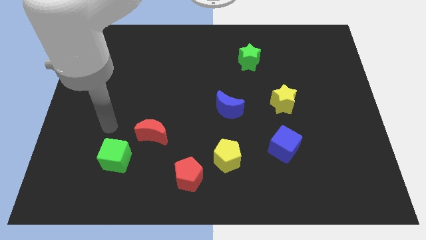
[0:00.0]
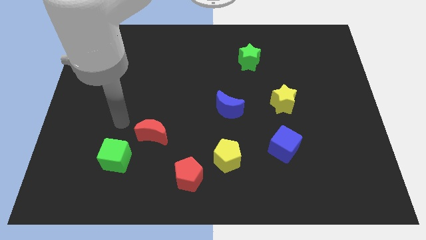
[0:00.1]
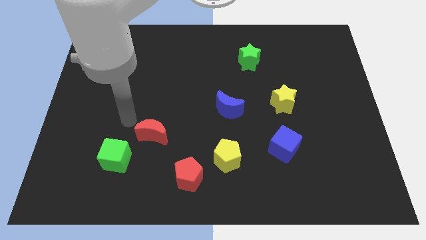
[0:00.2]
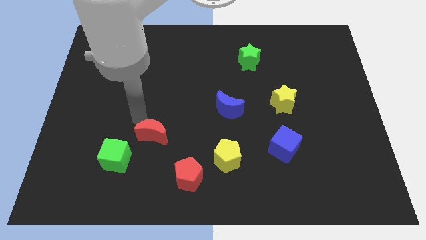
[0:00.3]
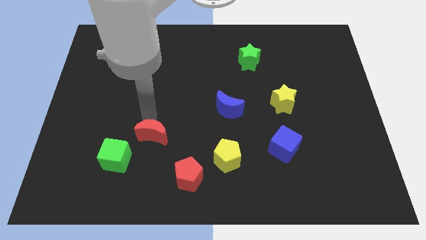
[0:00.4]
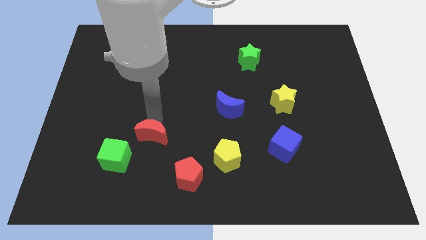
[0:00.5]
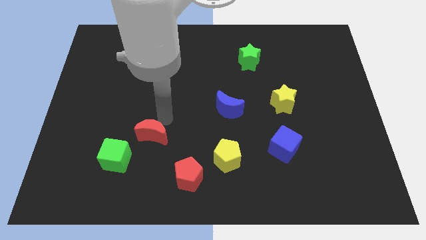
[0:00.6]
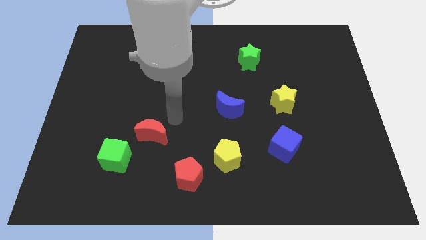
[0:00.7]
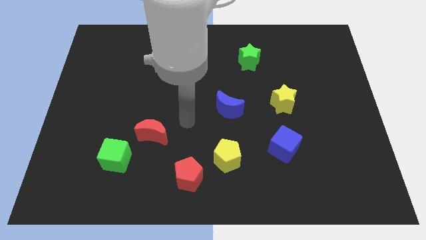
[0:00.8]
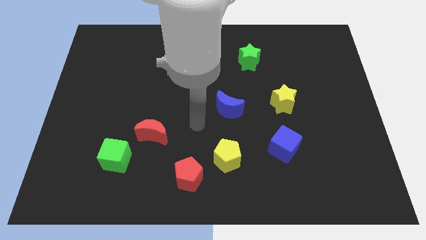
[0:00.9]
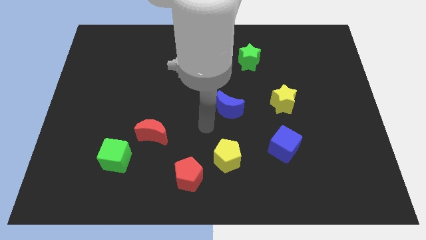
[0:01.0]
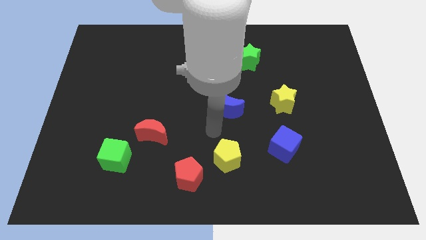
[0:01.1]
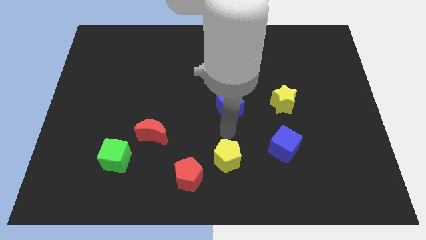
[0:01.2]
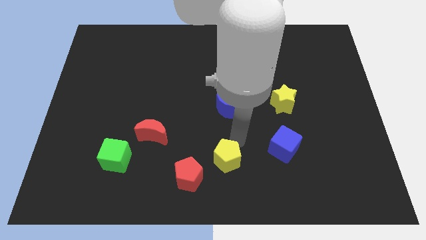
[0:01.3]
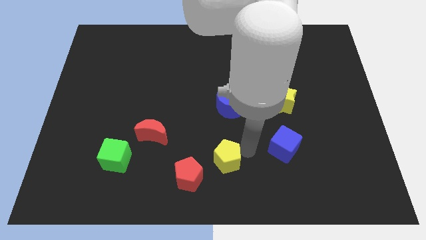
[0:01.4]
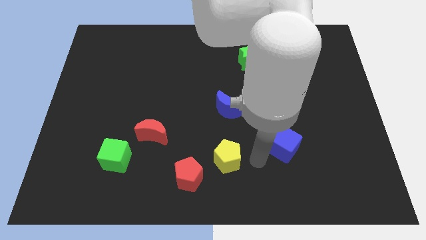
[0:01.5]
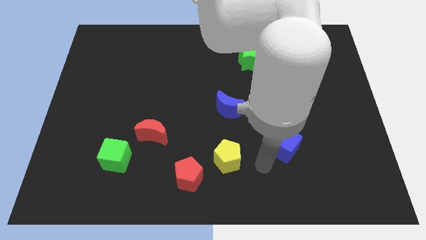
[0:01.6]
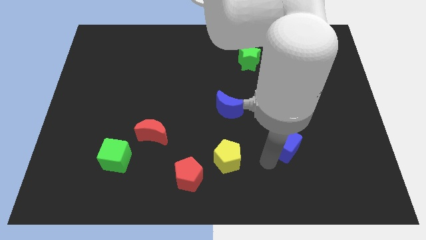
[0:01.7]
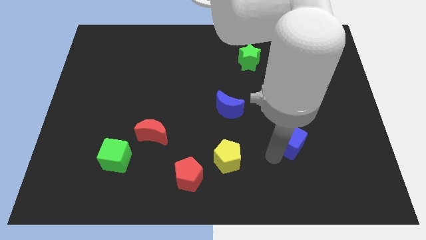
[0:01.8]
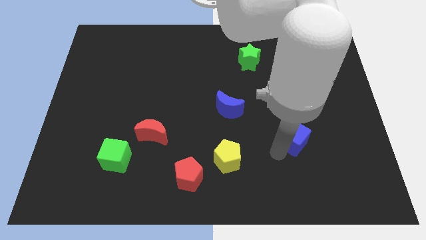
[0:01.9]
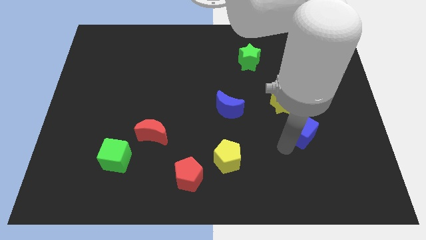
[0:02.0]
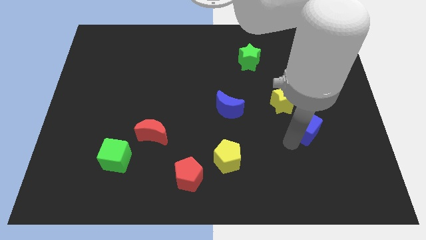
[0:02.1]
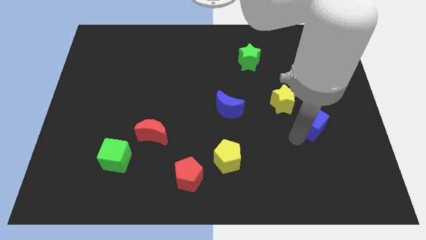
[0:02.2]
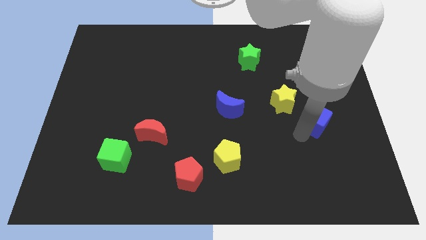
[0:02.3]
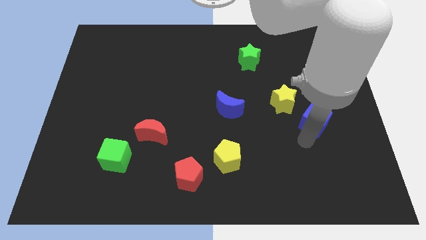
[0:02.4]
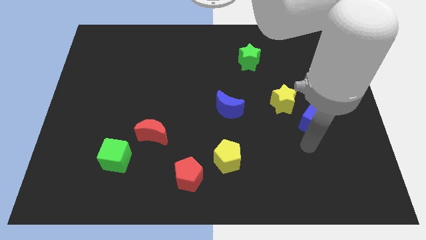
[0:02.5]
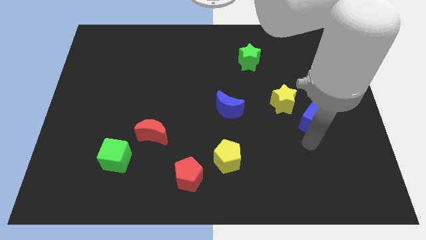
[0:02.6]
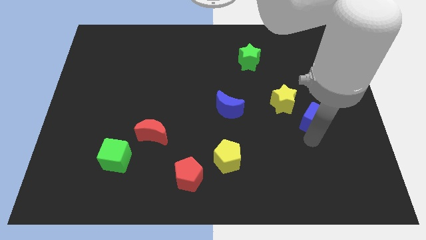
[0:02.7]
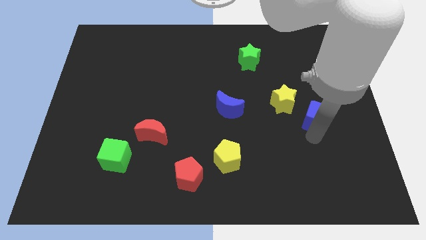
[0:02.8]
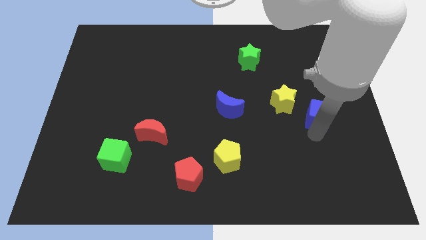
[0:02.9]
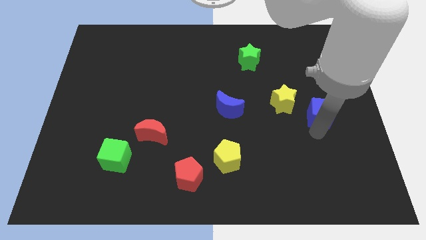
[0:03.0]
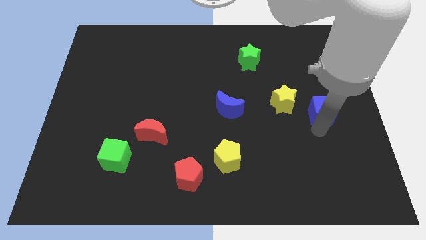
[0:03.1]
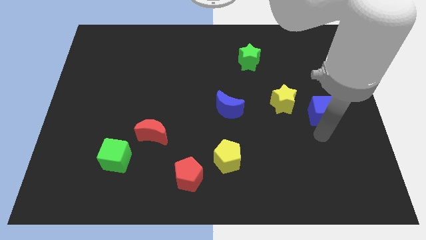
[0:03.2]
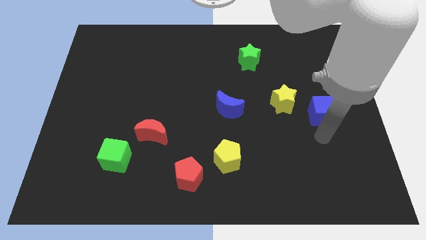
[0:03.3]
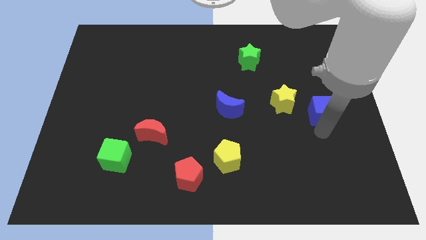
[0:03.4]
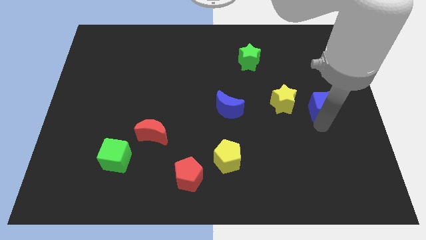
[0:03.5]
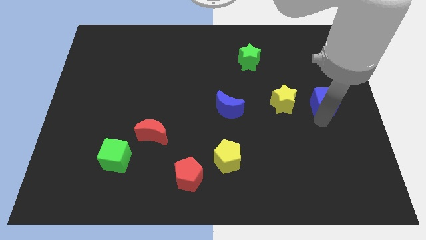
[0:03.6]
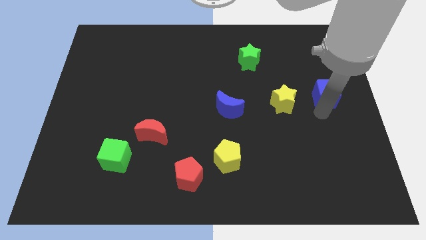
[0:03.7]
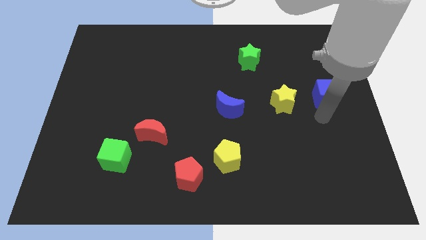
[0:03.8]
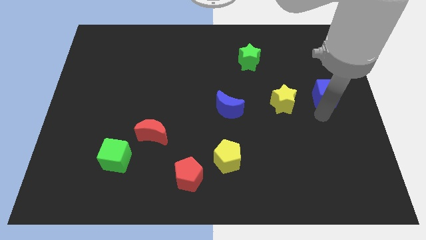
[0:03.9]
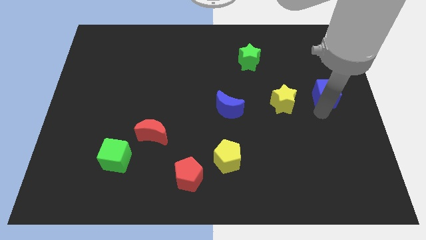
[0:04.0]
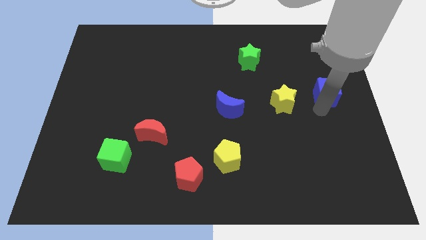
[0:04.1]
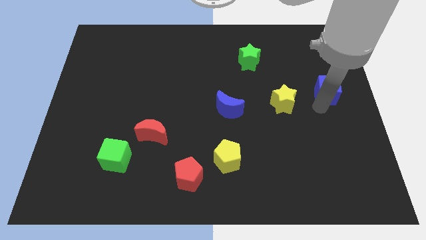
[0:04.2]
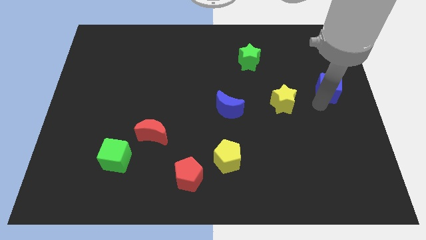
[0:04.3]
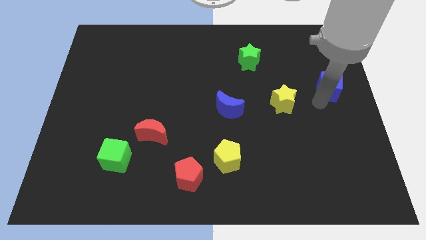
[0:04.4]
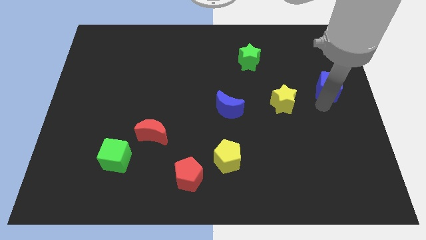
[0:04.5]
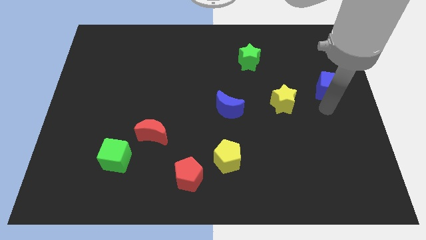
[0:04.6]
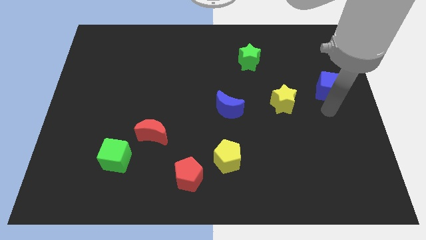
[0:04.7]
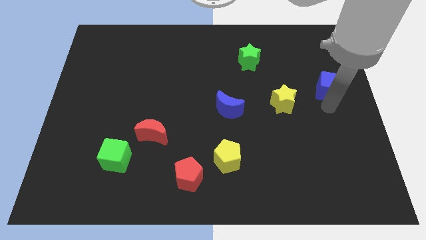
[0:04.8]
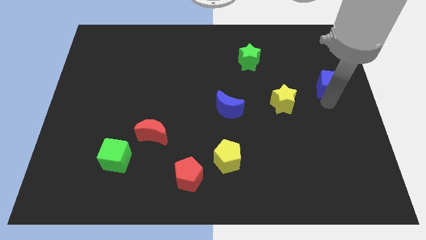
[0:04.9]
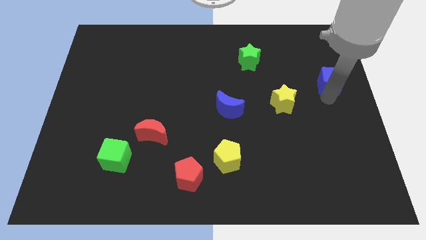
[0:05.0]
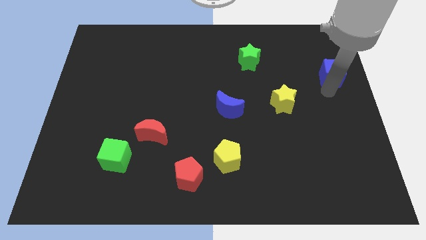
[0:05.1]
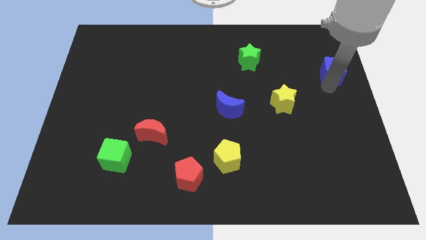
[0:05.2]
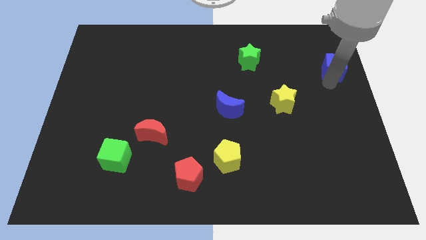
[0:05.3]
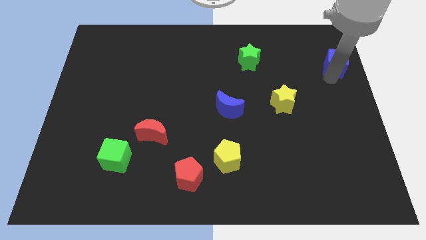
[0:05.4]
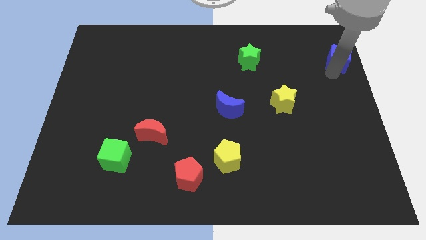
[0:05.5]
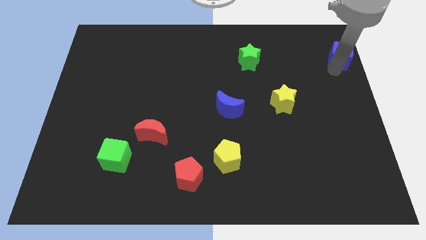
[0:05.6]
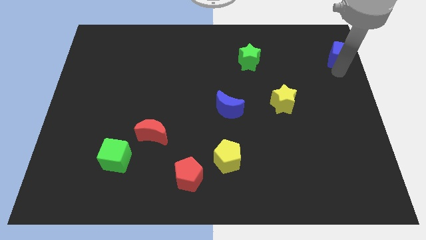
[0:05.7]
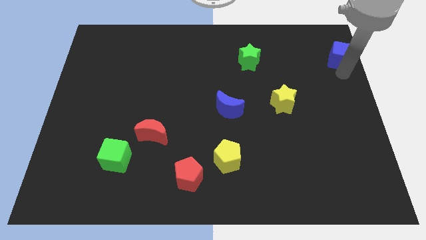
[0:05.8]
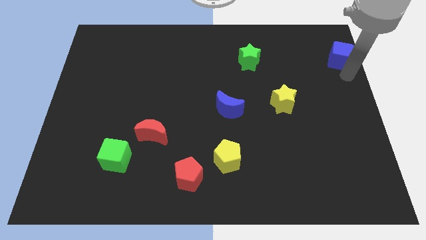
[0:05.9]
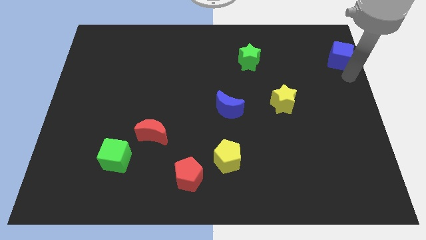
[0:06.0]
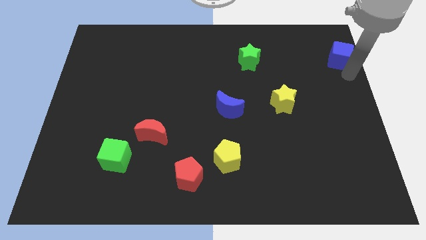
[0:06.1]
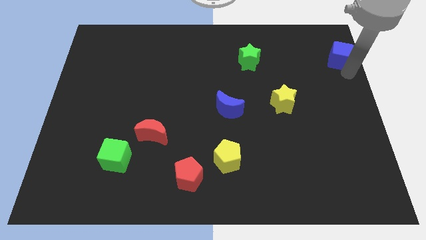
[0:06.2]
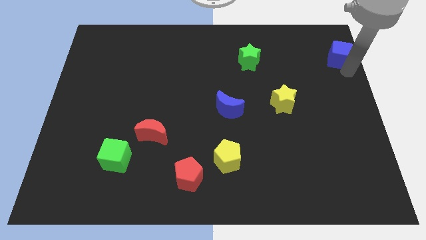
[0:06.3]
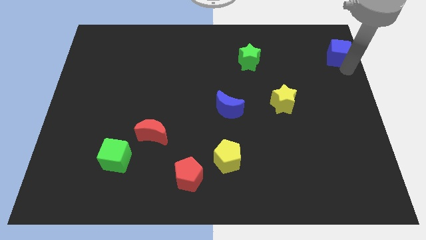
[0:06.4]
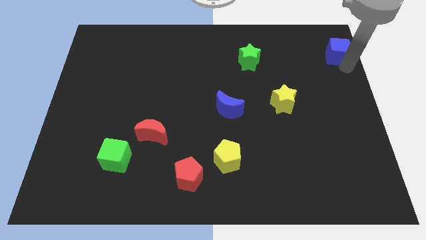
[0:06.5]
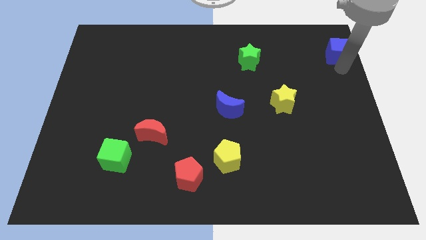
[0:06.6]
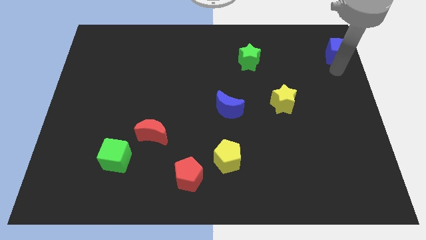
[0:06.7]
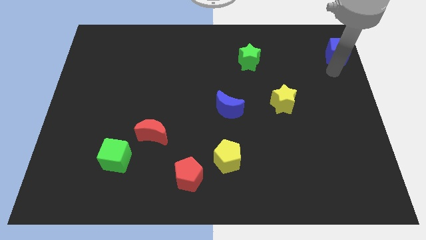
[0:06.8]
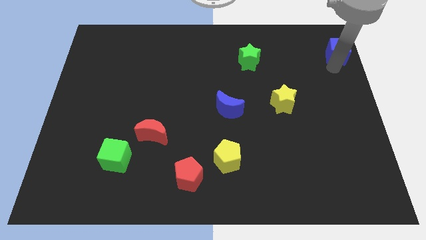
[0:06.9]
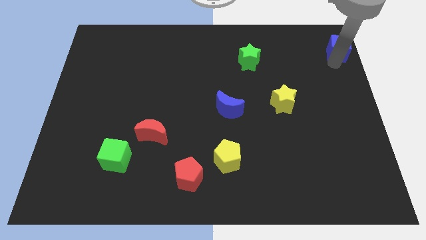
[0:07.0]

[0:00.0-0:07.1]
slide the blue cube to the upper right corner
